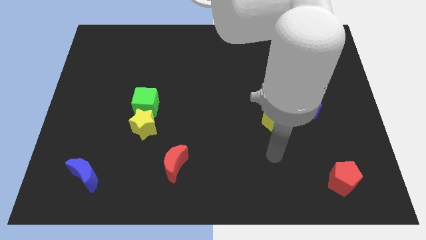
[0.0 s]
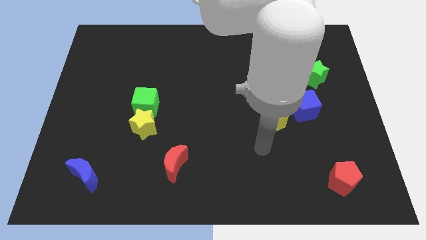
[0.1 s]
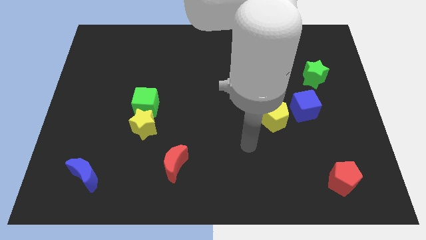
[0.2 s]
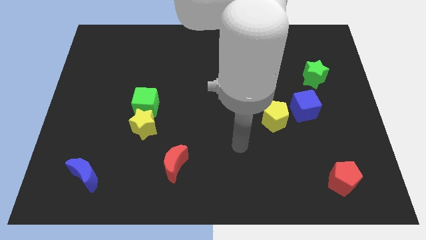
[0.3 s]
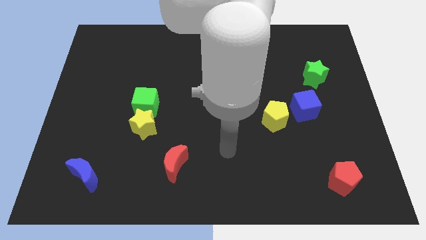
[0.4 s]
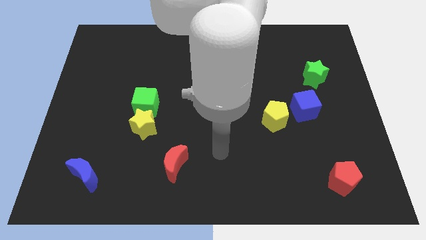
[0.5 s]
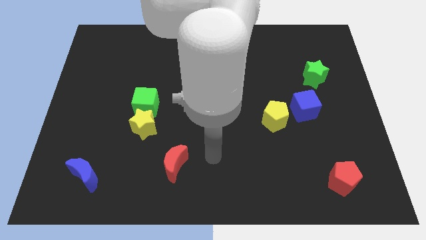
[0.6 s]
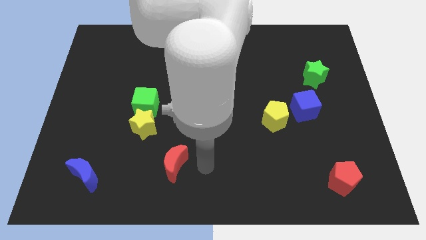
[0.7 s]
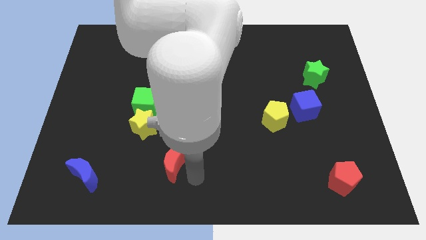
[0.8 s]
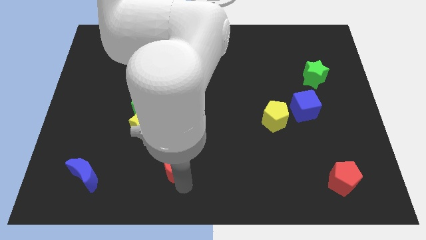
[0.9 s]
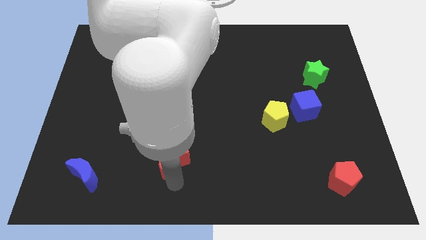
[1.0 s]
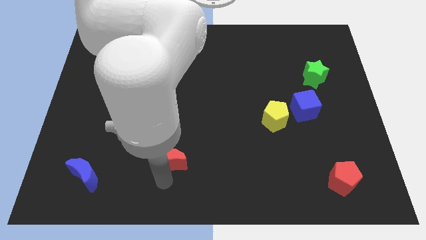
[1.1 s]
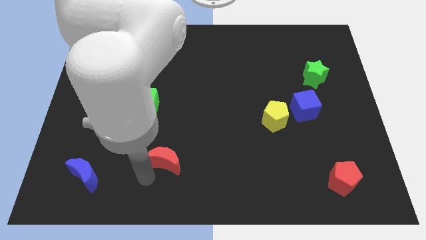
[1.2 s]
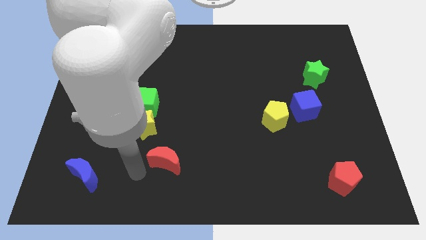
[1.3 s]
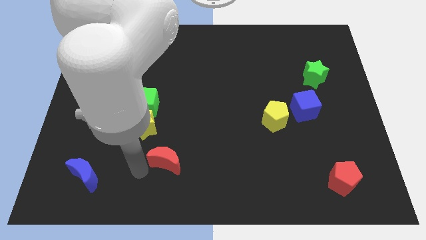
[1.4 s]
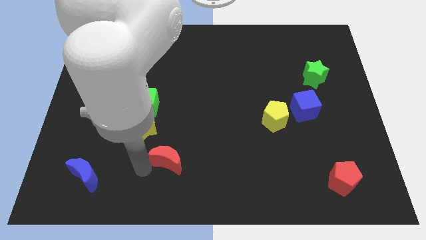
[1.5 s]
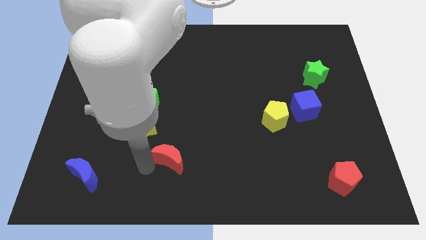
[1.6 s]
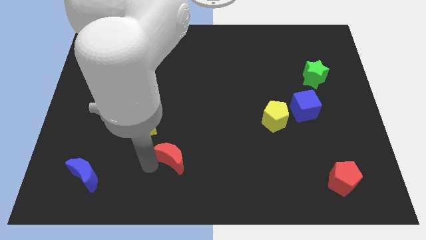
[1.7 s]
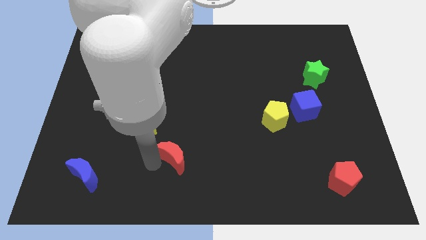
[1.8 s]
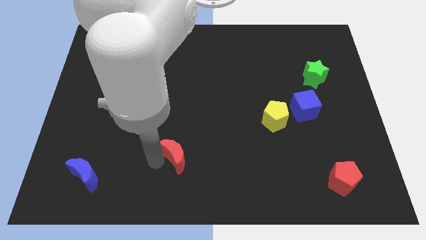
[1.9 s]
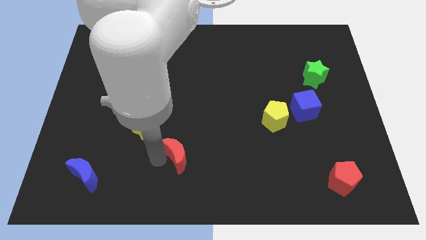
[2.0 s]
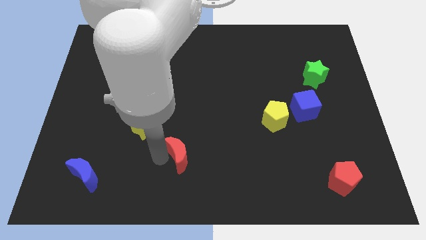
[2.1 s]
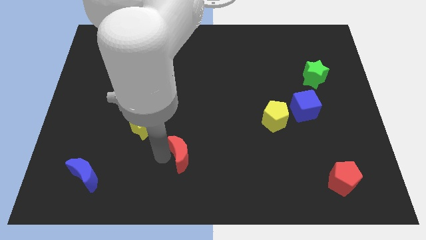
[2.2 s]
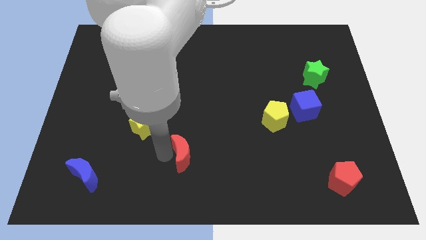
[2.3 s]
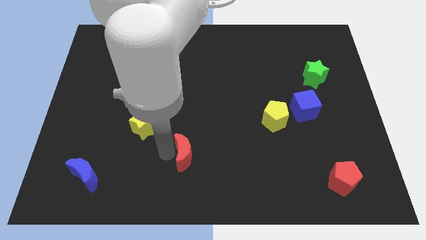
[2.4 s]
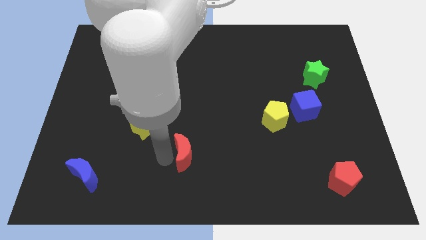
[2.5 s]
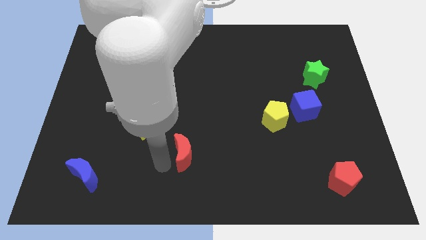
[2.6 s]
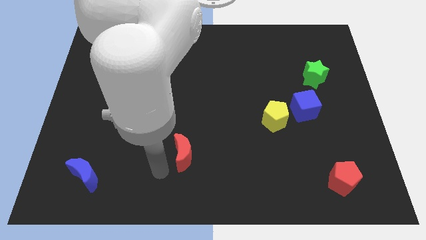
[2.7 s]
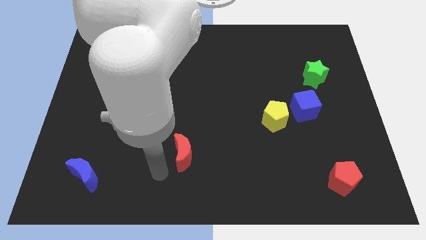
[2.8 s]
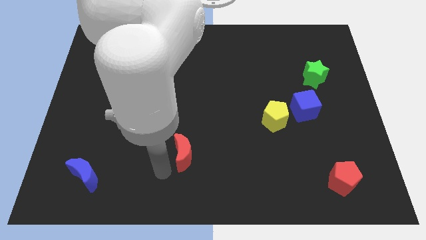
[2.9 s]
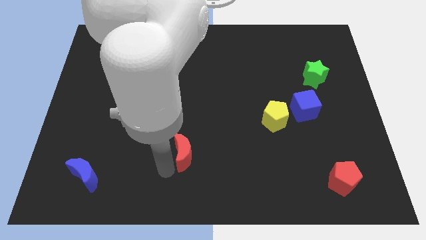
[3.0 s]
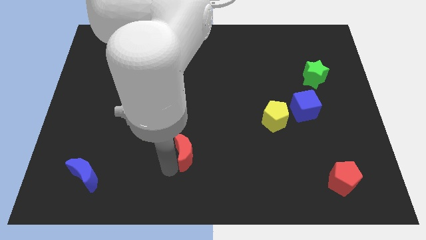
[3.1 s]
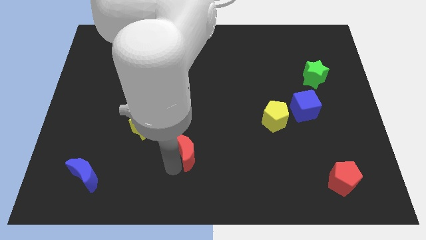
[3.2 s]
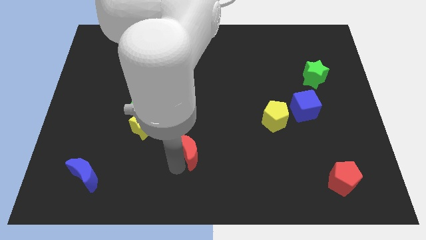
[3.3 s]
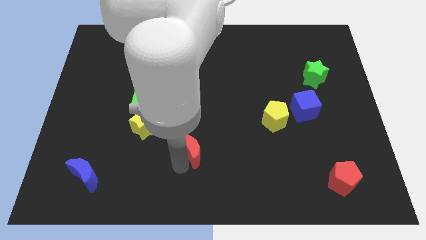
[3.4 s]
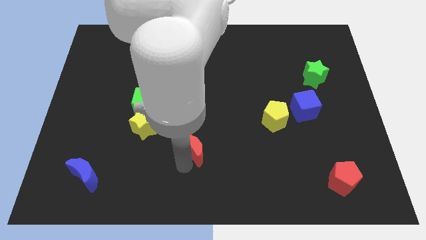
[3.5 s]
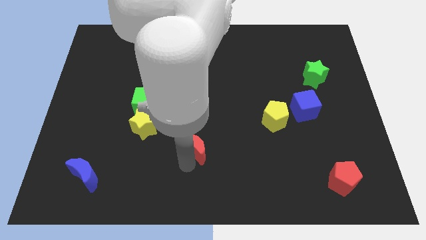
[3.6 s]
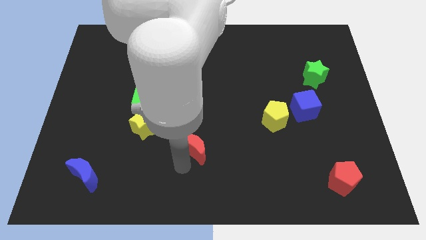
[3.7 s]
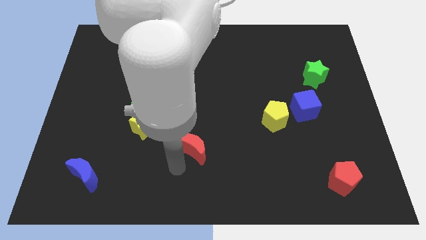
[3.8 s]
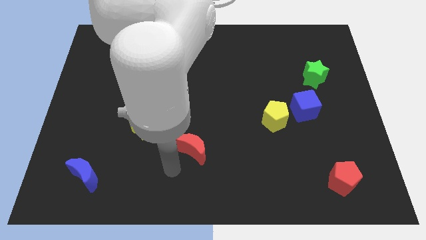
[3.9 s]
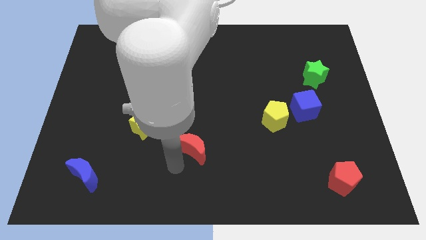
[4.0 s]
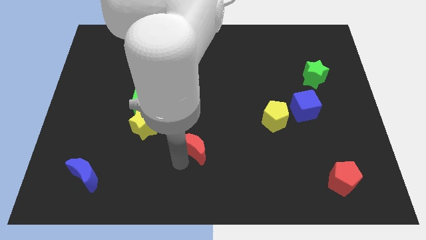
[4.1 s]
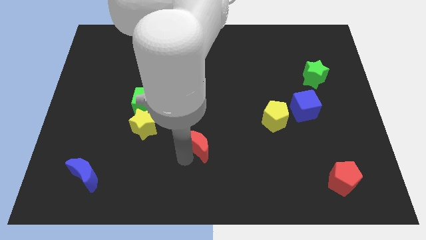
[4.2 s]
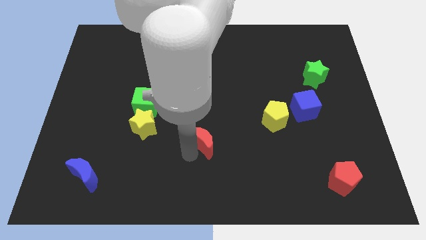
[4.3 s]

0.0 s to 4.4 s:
slightly move the red moon upwards and then to the right

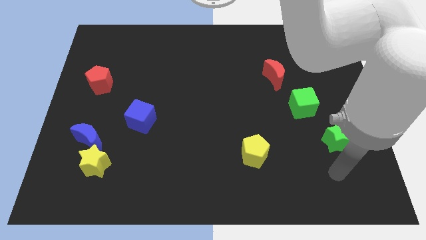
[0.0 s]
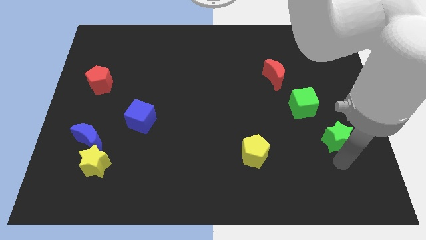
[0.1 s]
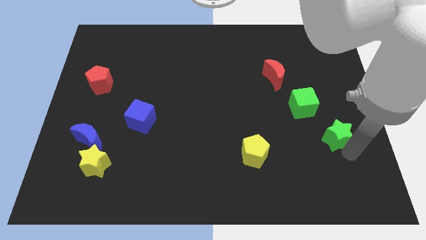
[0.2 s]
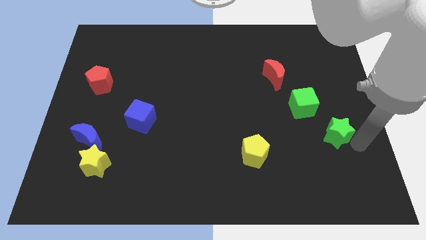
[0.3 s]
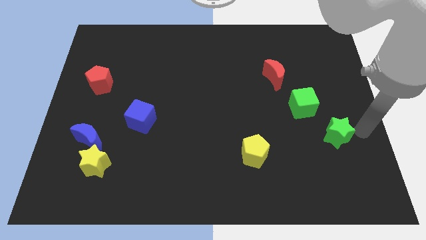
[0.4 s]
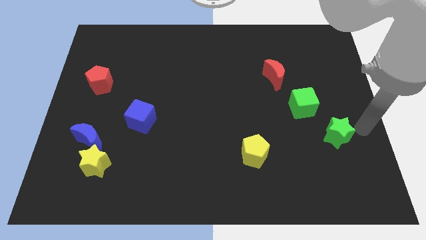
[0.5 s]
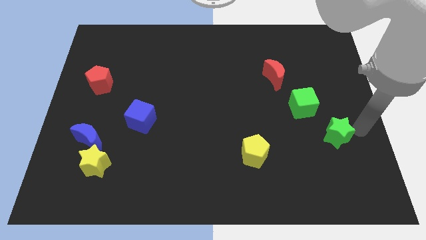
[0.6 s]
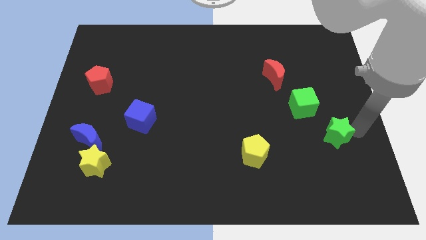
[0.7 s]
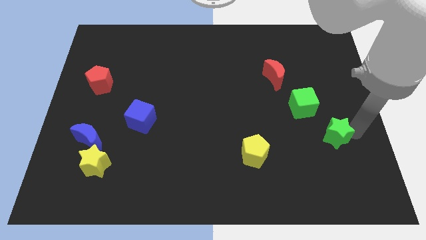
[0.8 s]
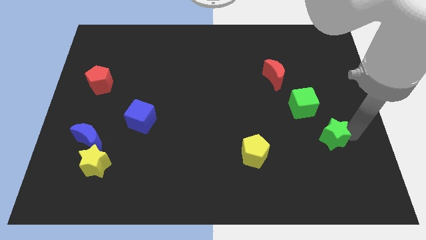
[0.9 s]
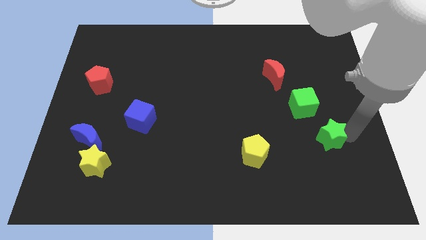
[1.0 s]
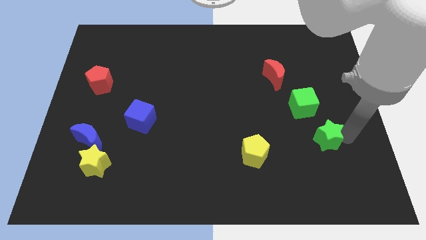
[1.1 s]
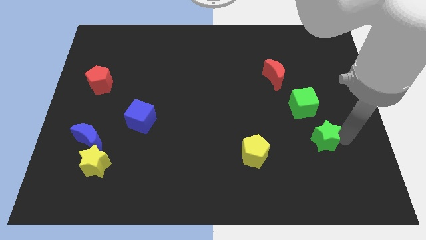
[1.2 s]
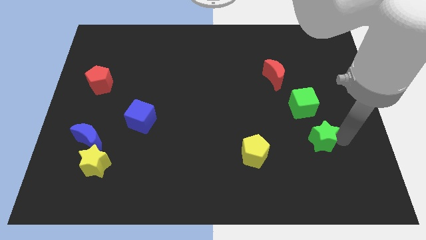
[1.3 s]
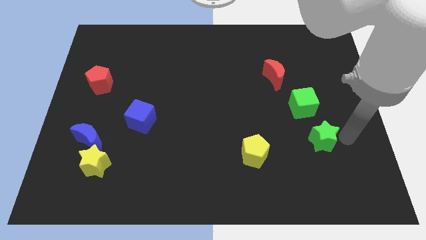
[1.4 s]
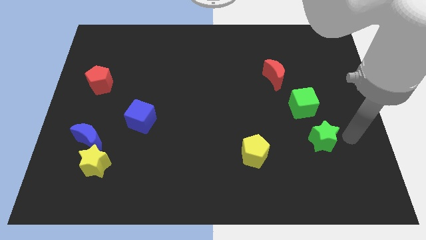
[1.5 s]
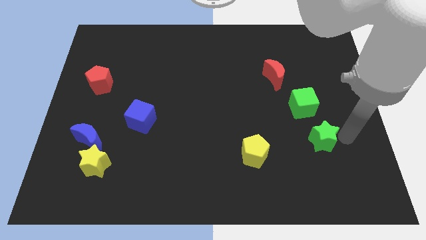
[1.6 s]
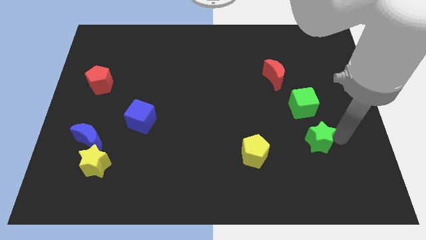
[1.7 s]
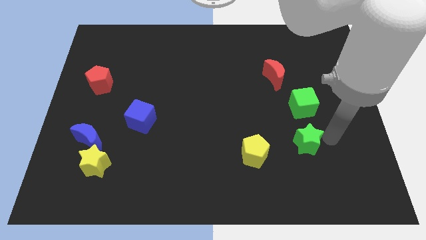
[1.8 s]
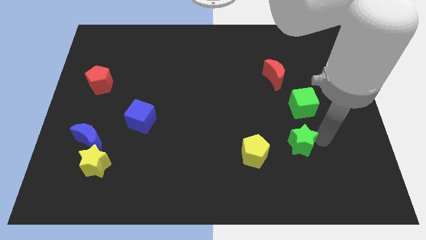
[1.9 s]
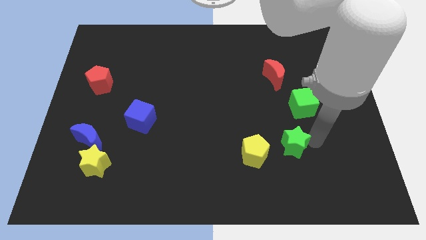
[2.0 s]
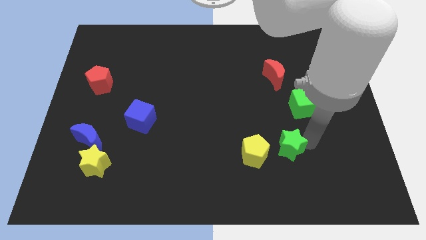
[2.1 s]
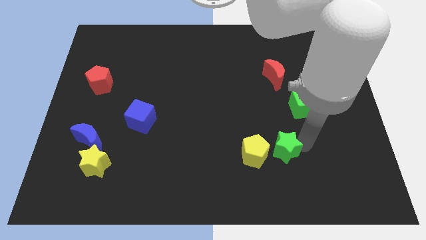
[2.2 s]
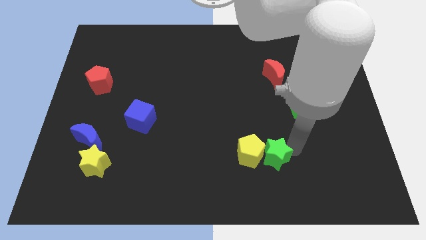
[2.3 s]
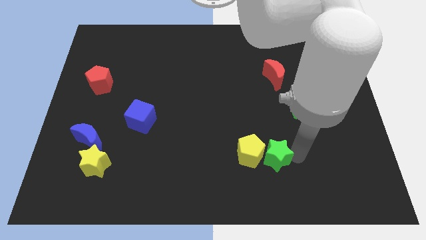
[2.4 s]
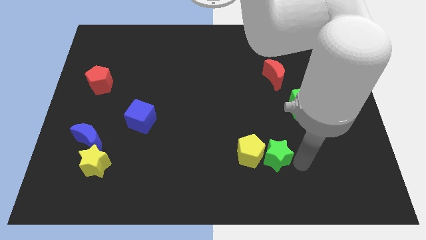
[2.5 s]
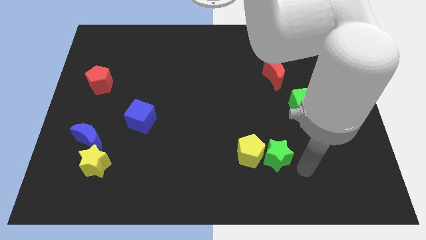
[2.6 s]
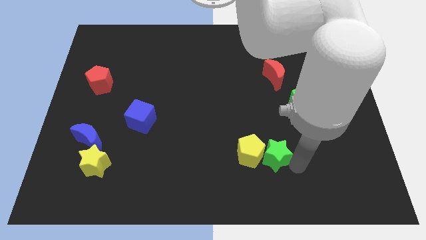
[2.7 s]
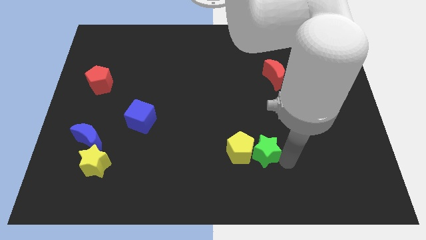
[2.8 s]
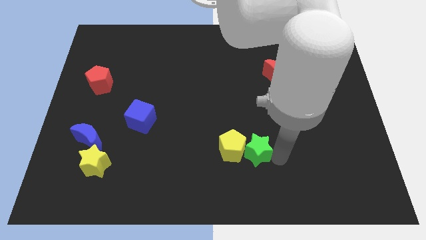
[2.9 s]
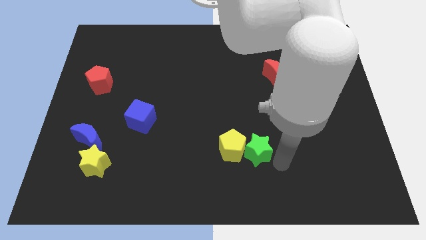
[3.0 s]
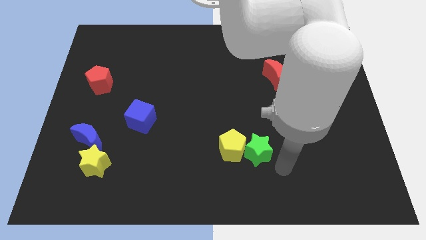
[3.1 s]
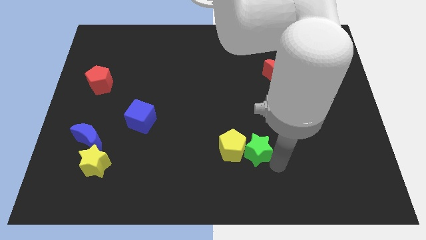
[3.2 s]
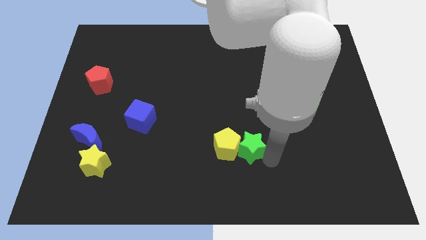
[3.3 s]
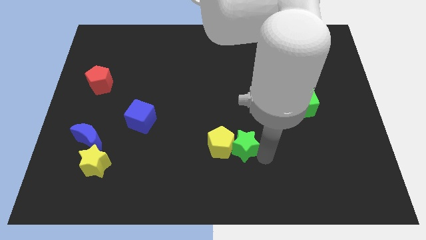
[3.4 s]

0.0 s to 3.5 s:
slide the green star to the left

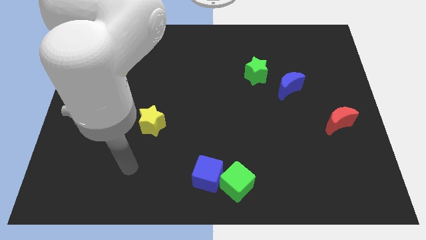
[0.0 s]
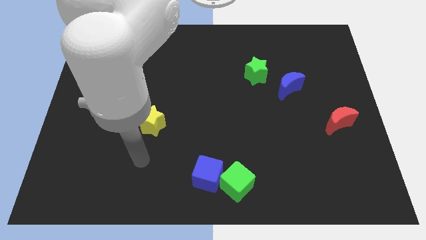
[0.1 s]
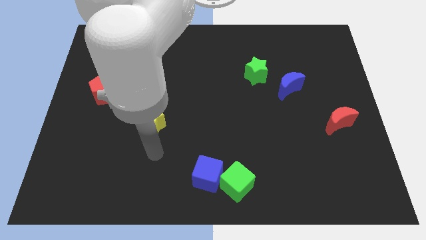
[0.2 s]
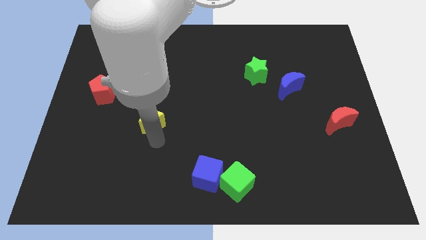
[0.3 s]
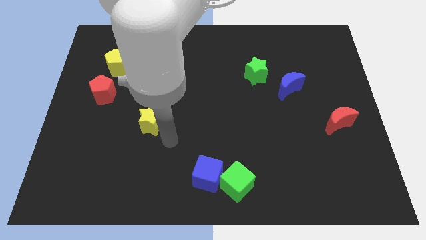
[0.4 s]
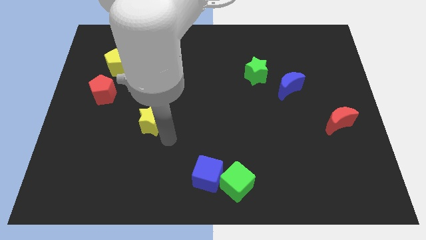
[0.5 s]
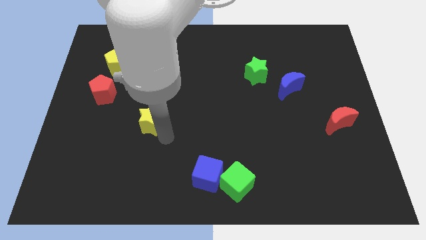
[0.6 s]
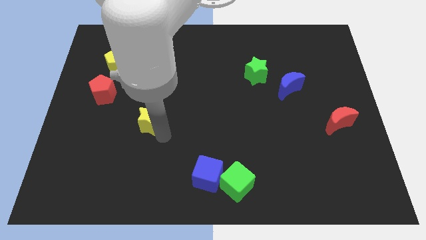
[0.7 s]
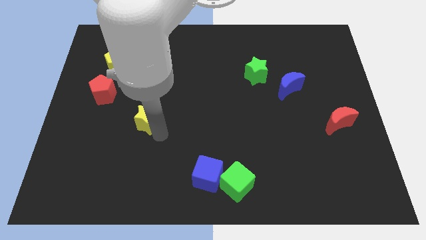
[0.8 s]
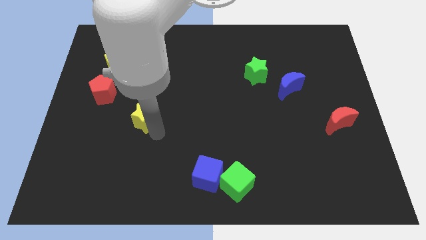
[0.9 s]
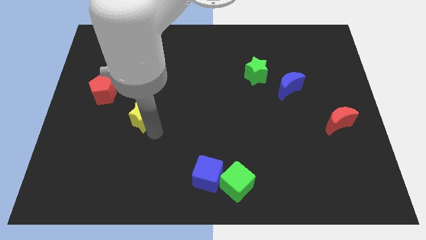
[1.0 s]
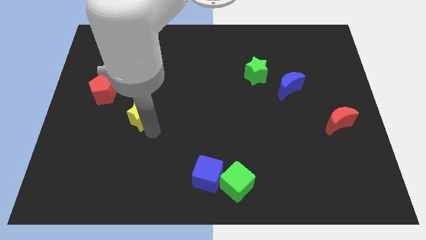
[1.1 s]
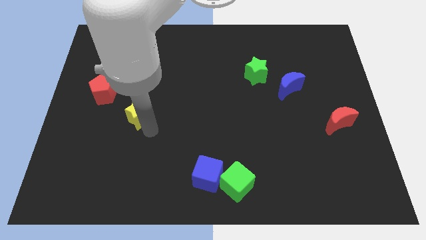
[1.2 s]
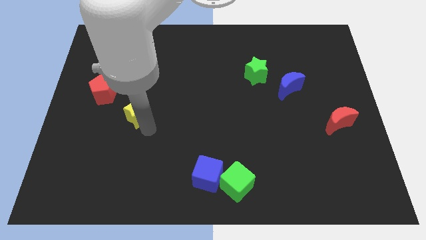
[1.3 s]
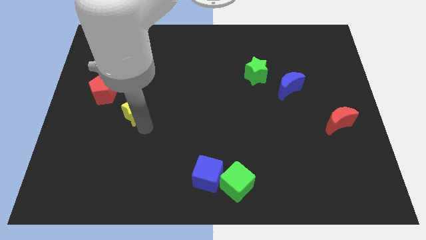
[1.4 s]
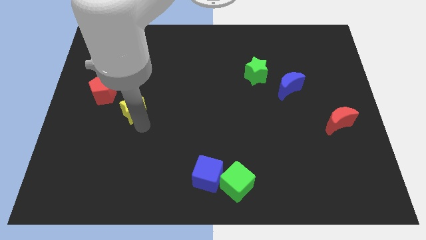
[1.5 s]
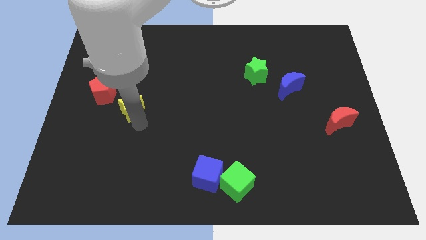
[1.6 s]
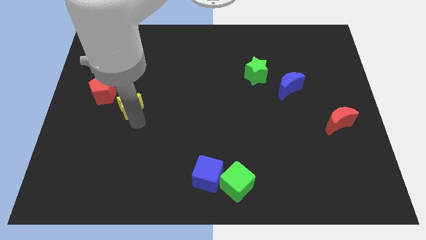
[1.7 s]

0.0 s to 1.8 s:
slightly move the yellow star up and left
